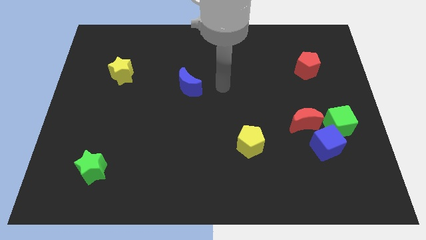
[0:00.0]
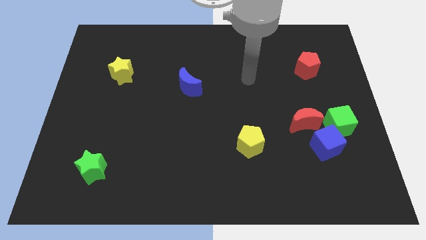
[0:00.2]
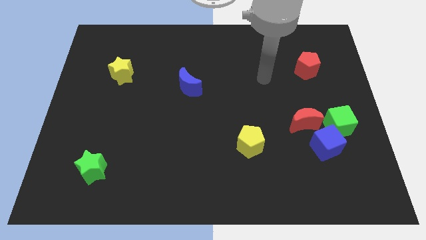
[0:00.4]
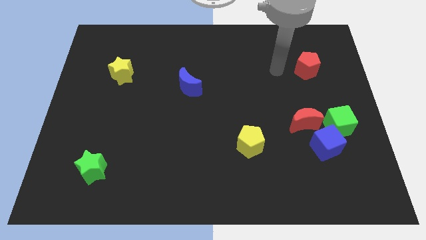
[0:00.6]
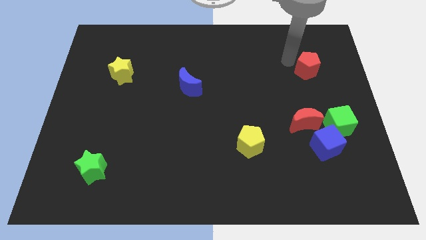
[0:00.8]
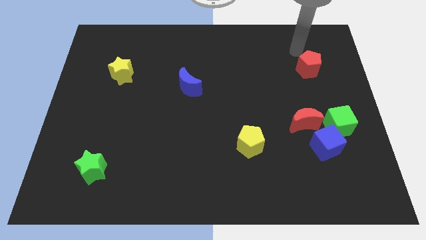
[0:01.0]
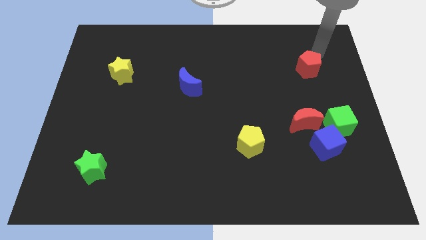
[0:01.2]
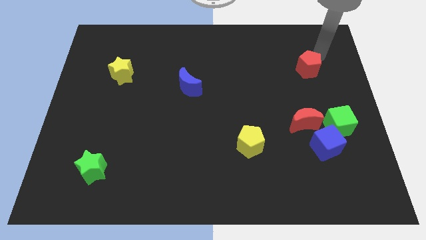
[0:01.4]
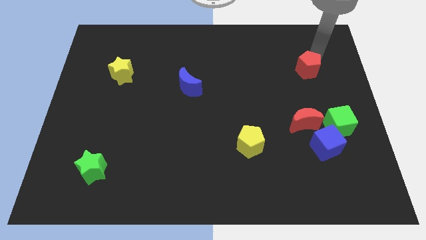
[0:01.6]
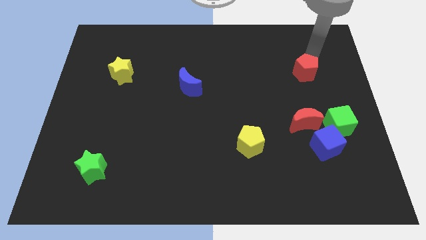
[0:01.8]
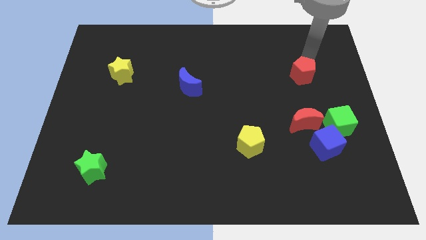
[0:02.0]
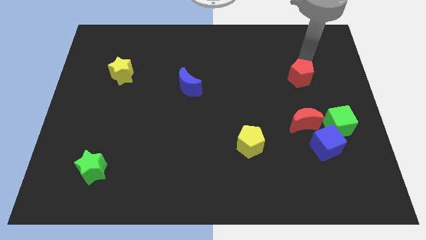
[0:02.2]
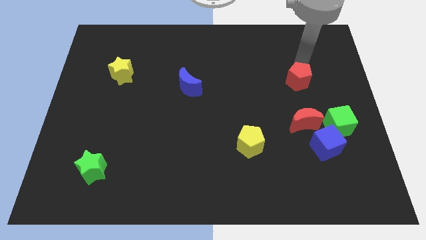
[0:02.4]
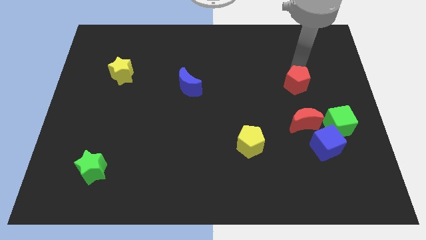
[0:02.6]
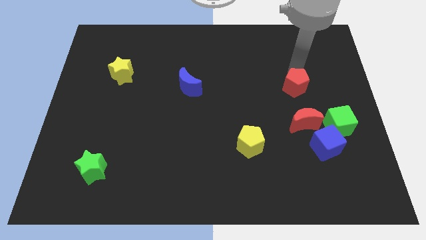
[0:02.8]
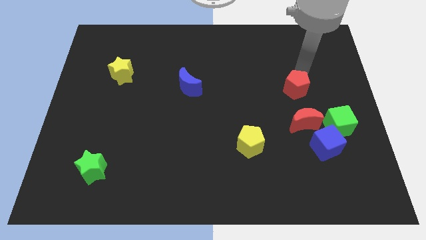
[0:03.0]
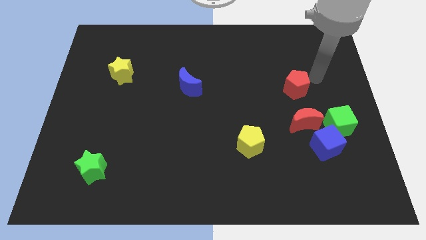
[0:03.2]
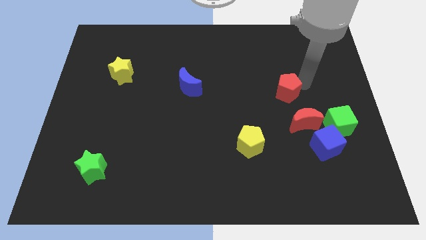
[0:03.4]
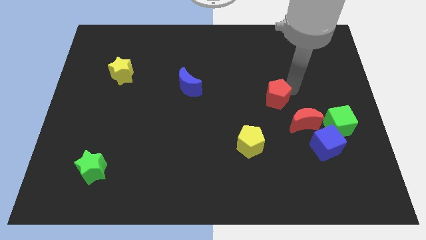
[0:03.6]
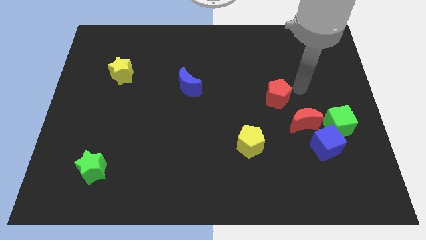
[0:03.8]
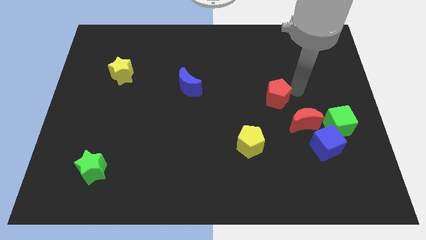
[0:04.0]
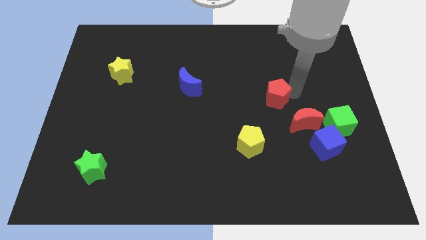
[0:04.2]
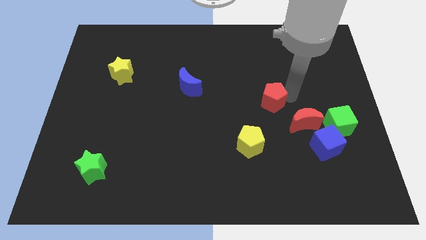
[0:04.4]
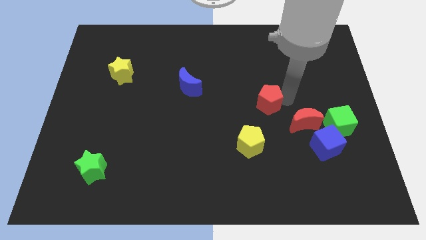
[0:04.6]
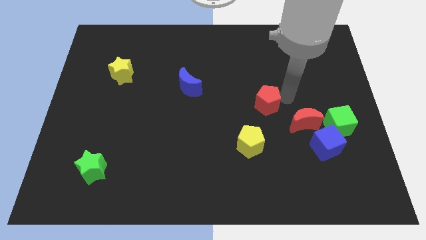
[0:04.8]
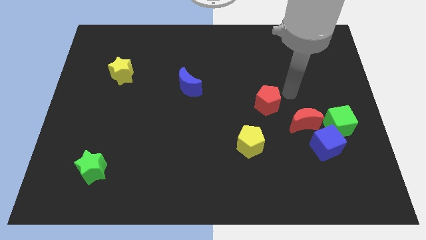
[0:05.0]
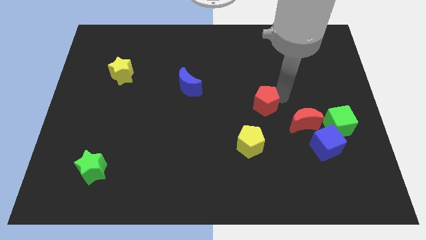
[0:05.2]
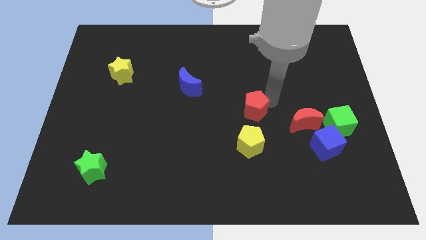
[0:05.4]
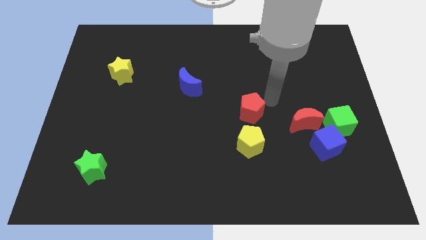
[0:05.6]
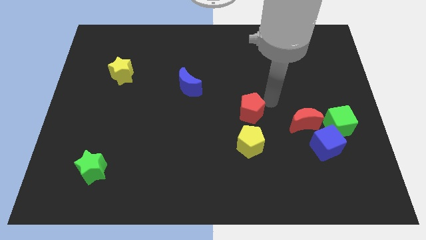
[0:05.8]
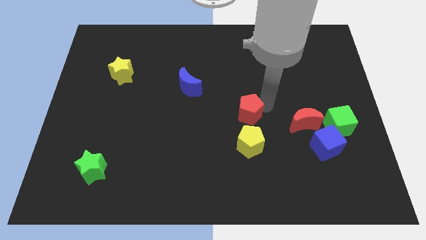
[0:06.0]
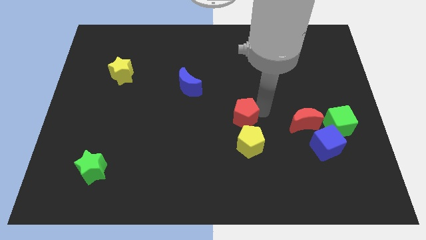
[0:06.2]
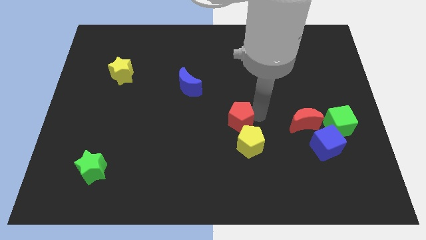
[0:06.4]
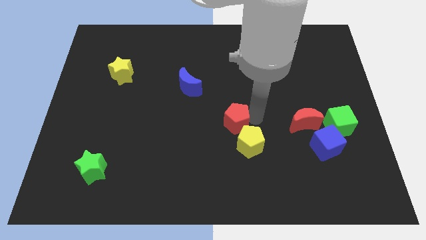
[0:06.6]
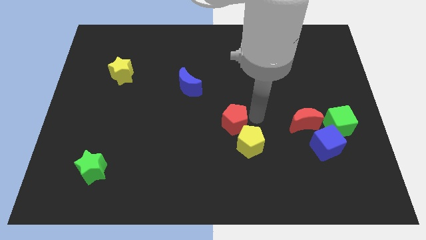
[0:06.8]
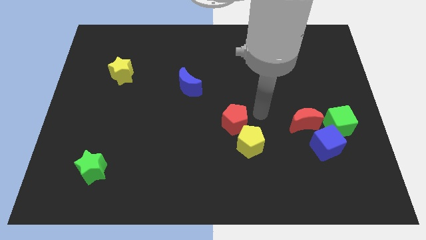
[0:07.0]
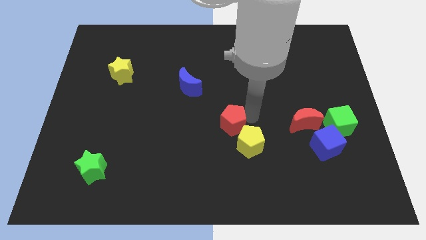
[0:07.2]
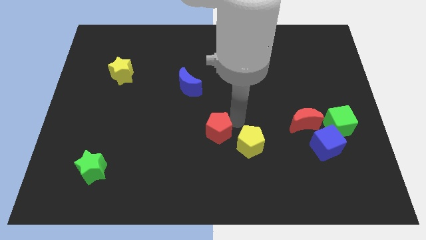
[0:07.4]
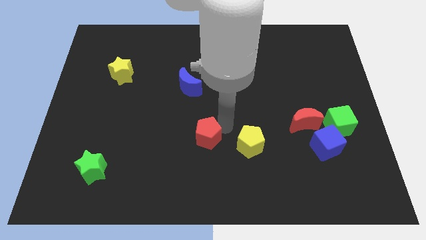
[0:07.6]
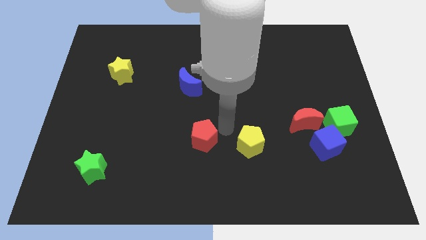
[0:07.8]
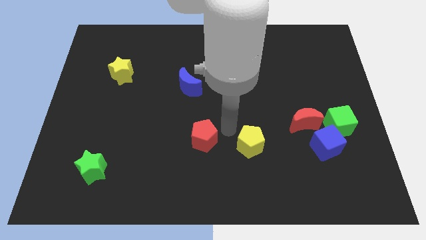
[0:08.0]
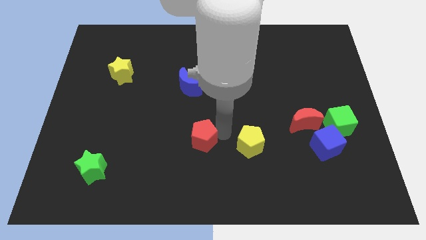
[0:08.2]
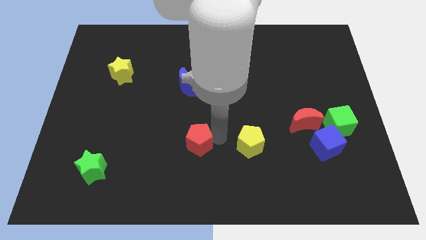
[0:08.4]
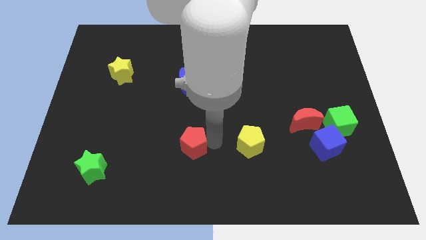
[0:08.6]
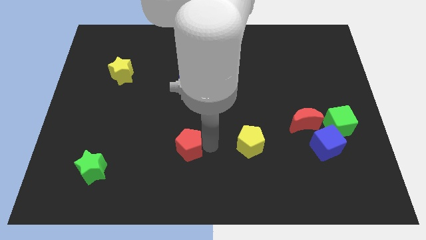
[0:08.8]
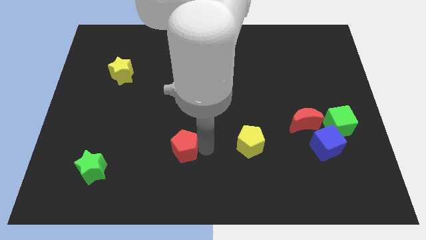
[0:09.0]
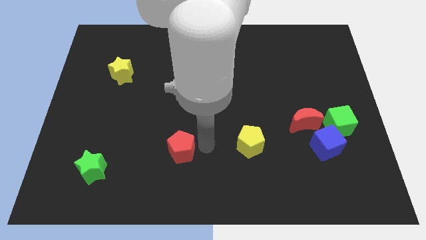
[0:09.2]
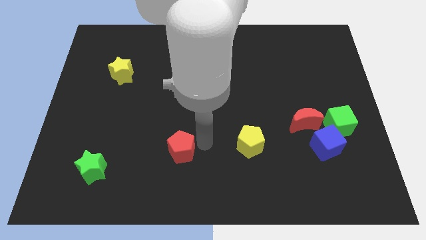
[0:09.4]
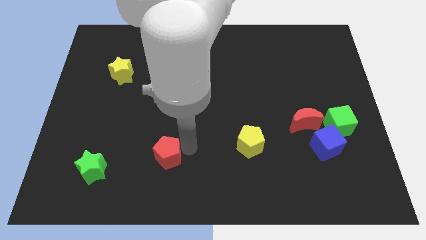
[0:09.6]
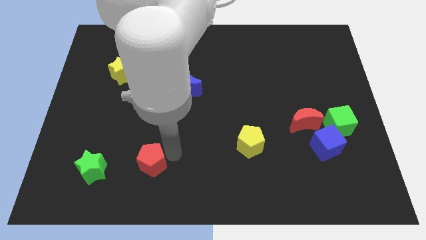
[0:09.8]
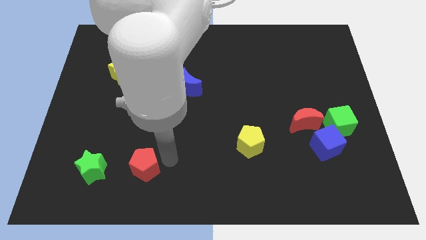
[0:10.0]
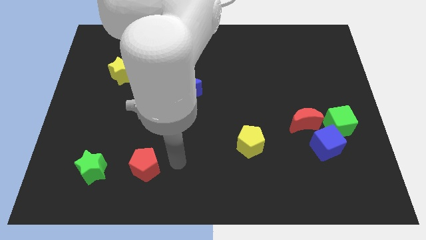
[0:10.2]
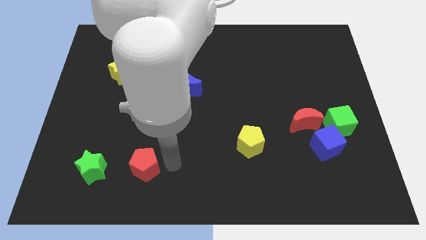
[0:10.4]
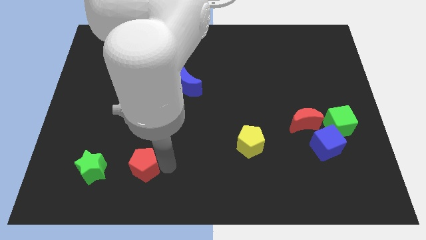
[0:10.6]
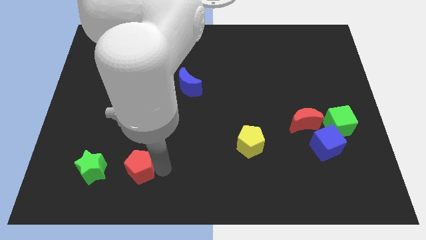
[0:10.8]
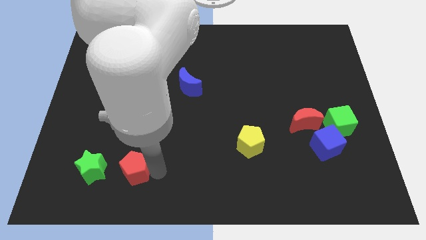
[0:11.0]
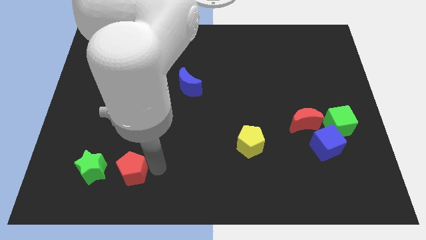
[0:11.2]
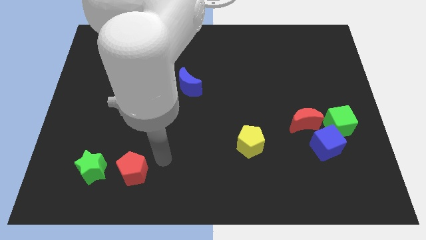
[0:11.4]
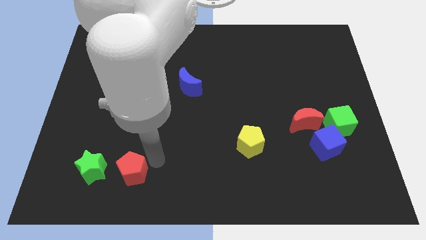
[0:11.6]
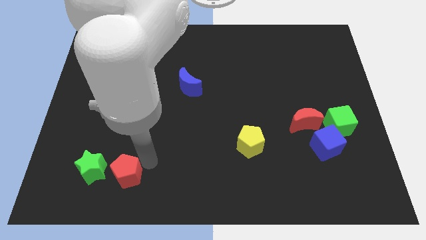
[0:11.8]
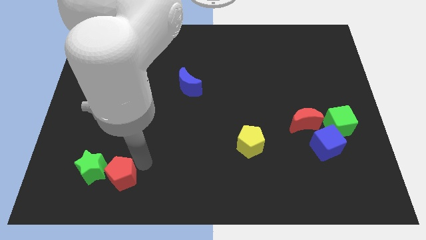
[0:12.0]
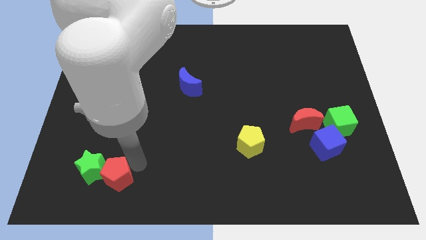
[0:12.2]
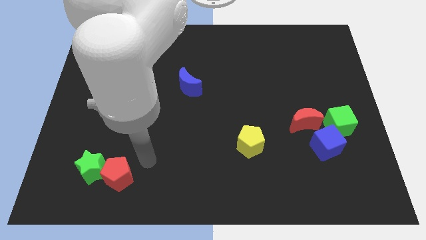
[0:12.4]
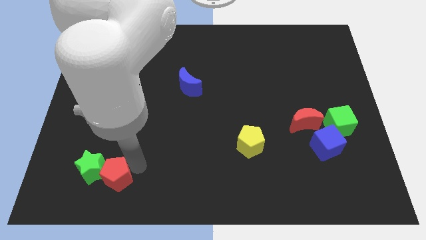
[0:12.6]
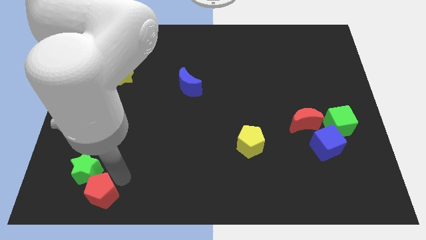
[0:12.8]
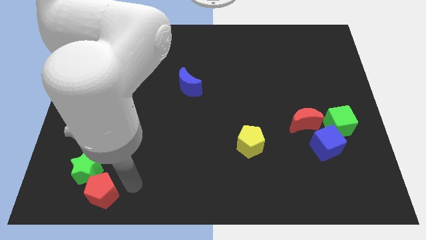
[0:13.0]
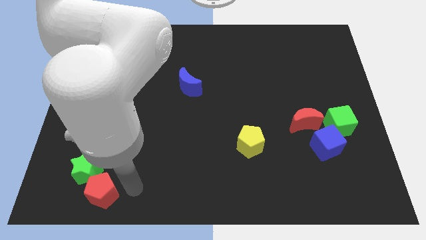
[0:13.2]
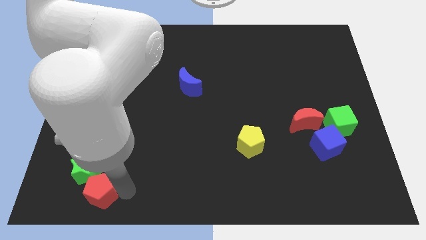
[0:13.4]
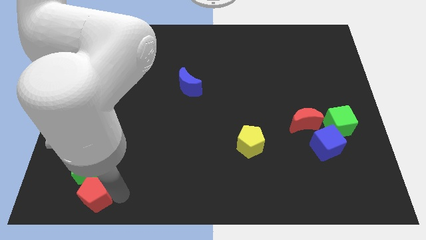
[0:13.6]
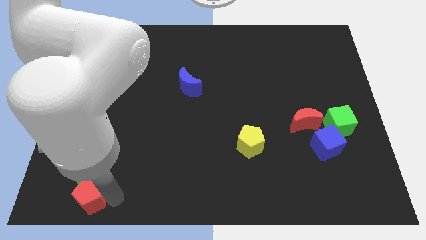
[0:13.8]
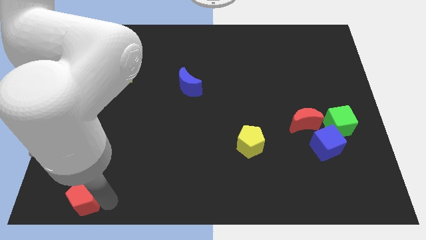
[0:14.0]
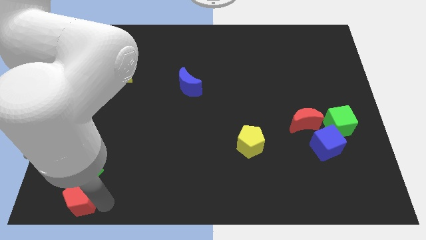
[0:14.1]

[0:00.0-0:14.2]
slide the red pentagon to the bottom left

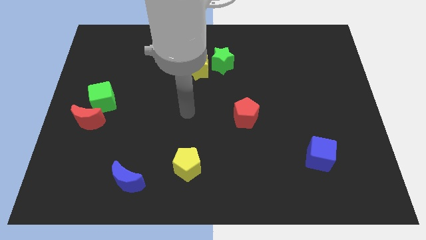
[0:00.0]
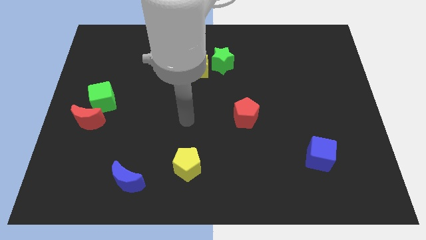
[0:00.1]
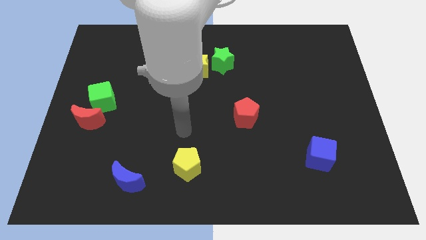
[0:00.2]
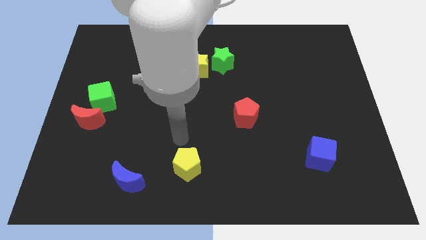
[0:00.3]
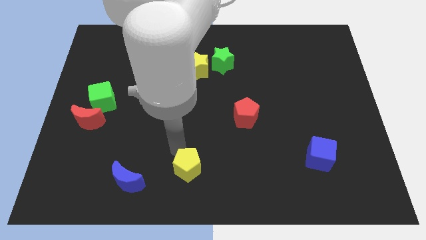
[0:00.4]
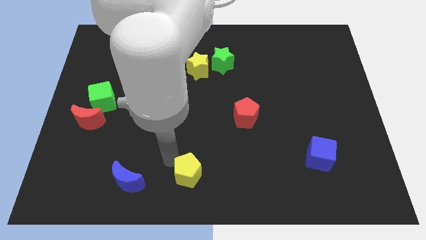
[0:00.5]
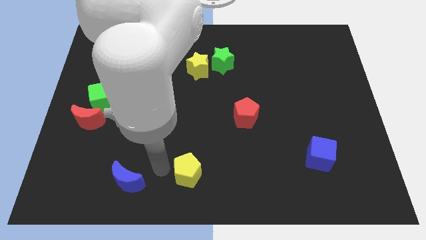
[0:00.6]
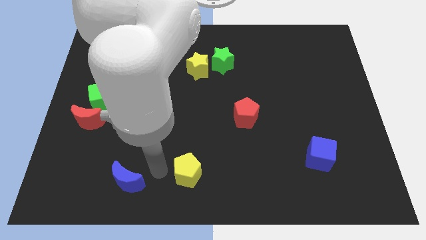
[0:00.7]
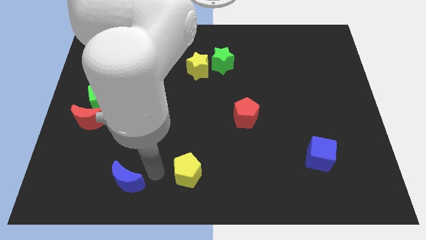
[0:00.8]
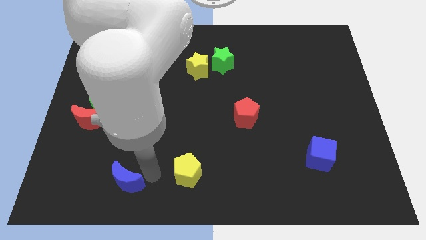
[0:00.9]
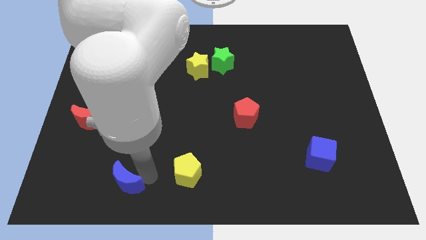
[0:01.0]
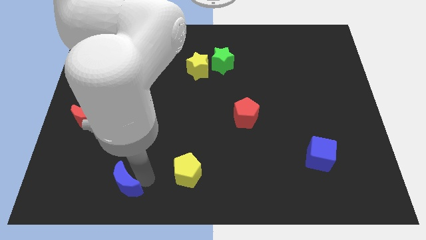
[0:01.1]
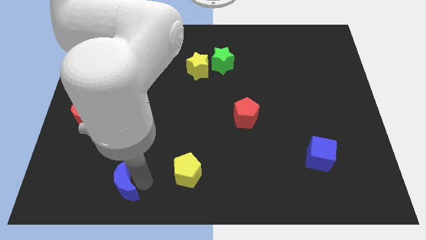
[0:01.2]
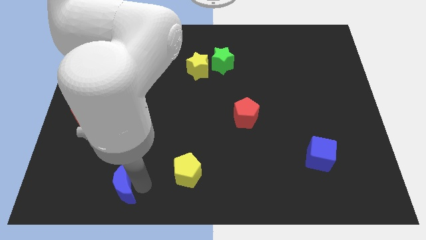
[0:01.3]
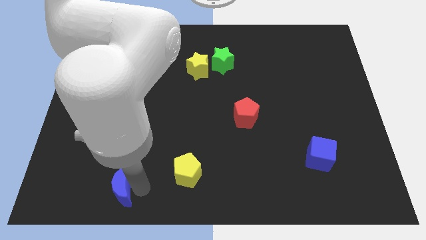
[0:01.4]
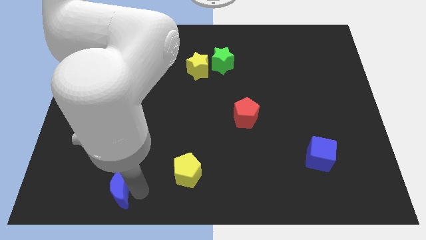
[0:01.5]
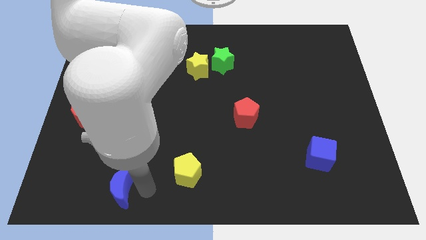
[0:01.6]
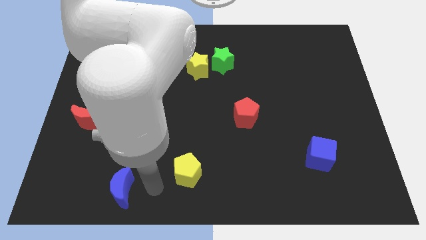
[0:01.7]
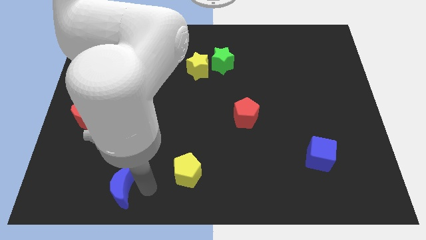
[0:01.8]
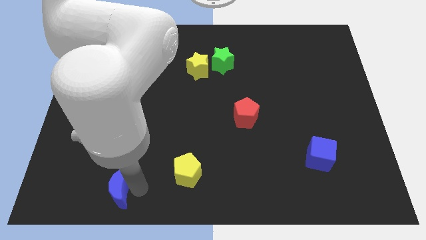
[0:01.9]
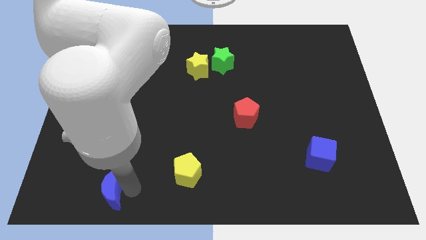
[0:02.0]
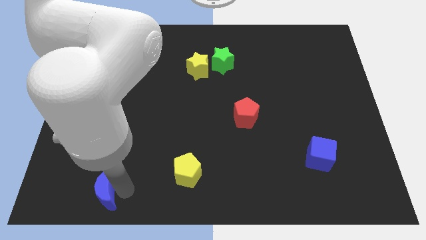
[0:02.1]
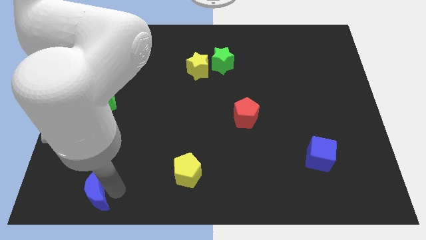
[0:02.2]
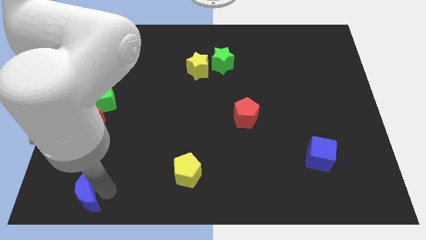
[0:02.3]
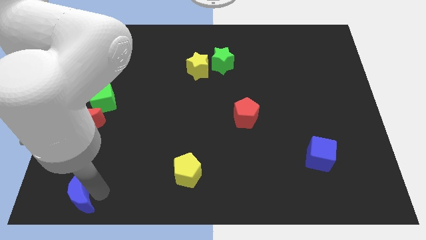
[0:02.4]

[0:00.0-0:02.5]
push the blue moon to the lower left corner
